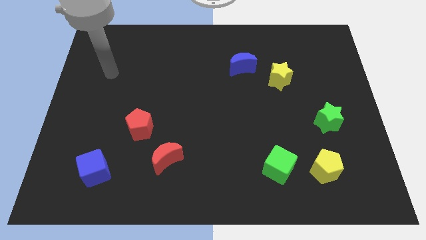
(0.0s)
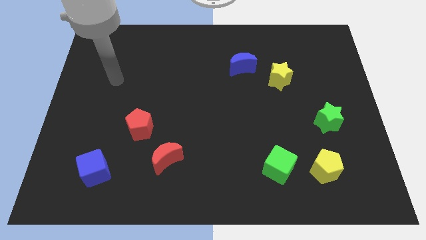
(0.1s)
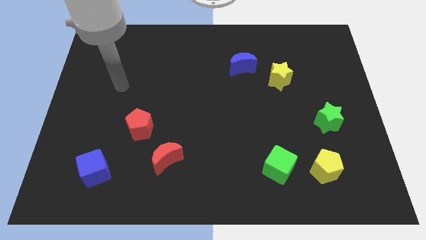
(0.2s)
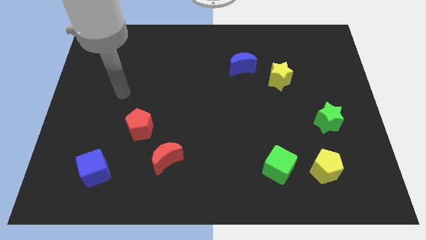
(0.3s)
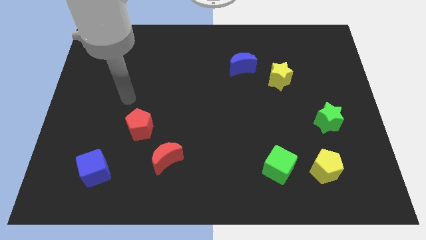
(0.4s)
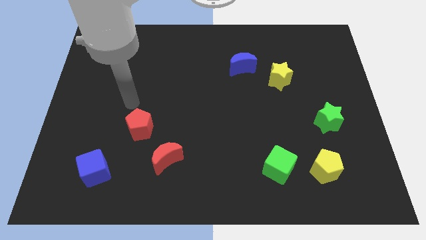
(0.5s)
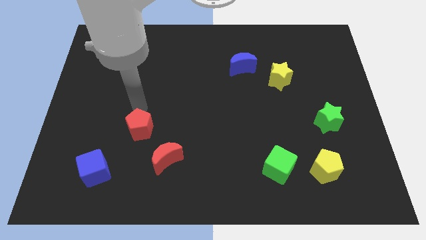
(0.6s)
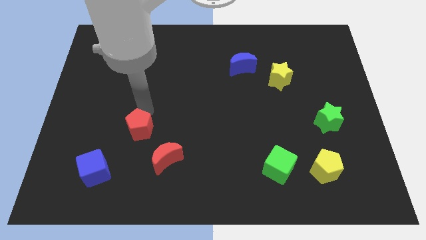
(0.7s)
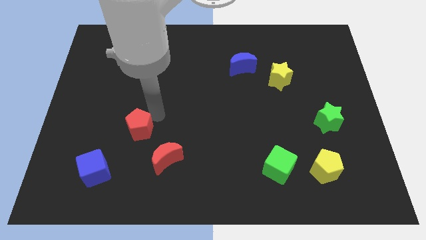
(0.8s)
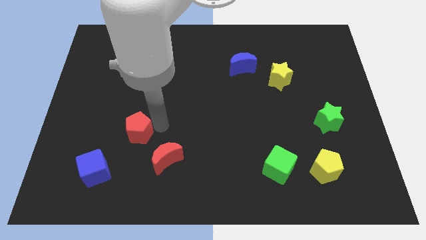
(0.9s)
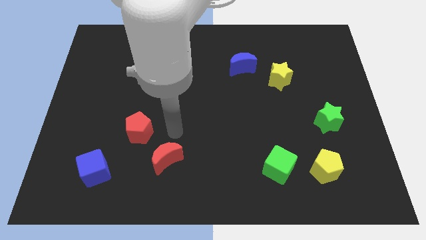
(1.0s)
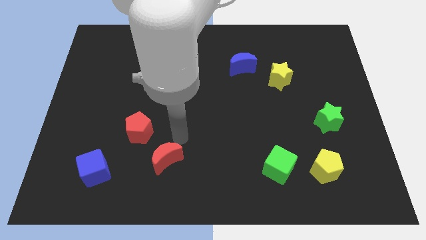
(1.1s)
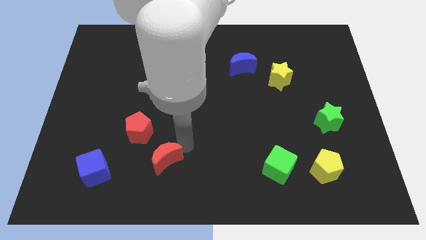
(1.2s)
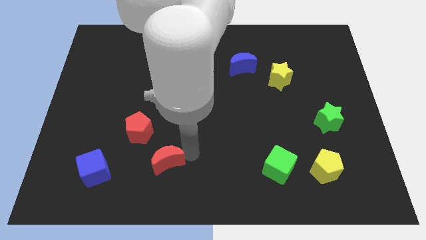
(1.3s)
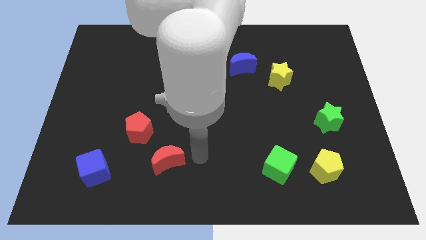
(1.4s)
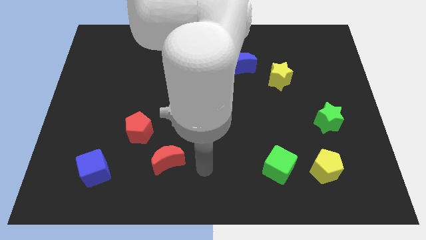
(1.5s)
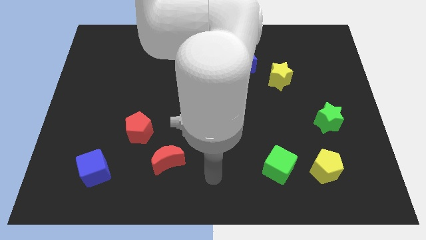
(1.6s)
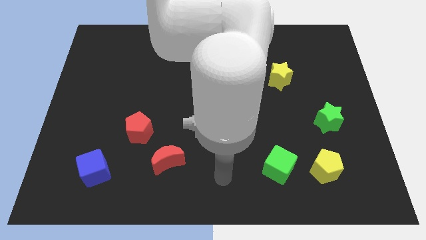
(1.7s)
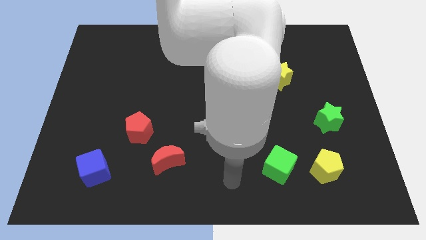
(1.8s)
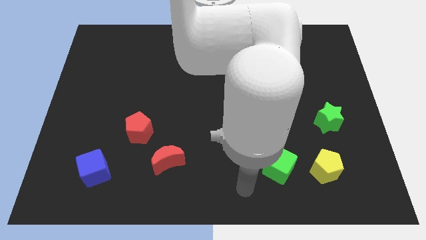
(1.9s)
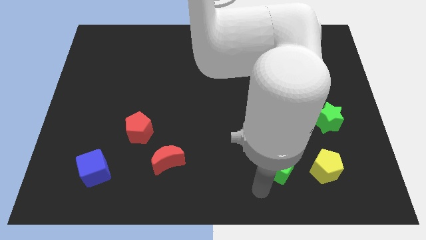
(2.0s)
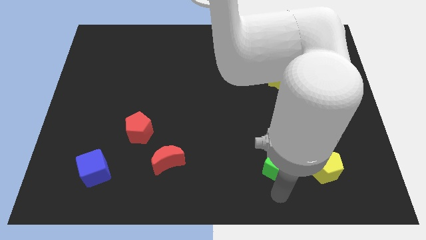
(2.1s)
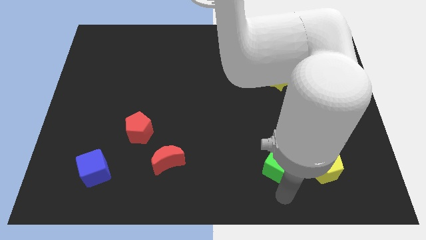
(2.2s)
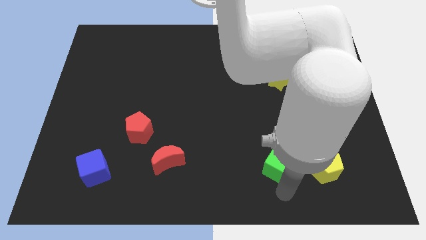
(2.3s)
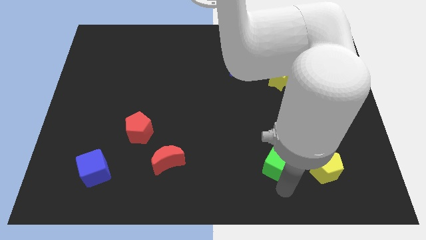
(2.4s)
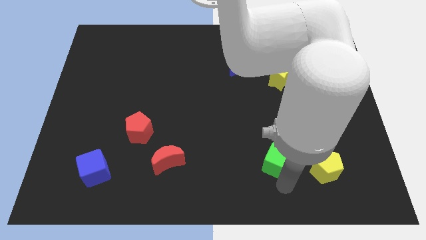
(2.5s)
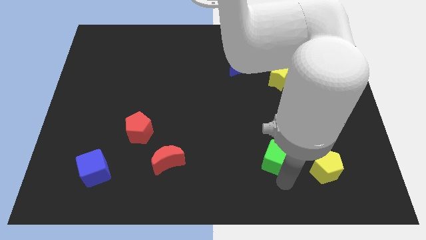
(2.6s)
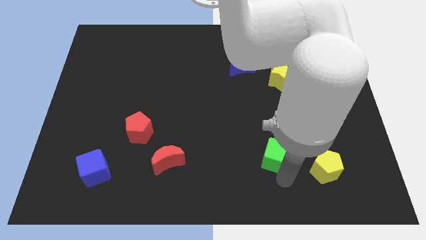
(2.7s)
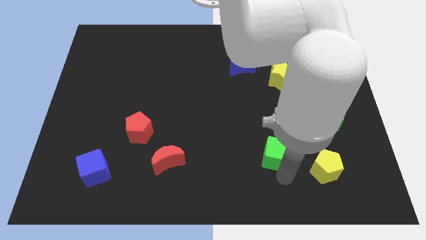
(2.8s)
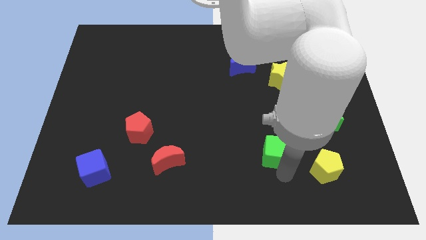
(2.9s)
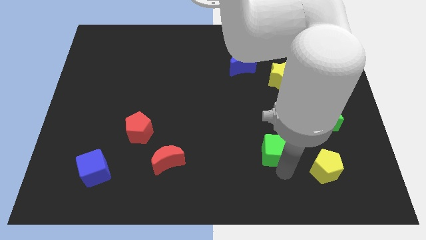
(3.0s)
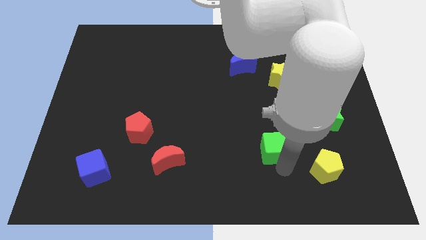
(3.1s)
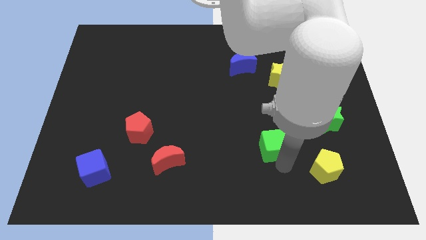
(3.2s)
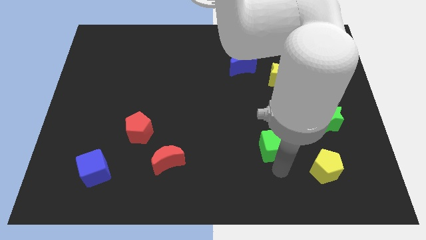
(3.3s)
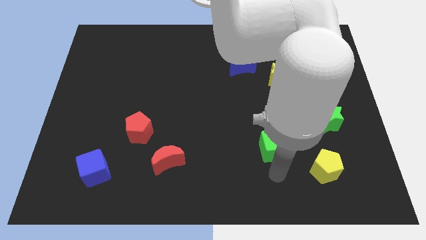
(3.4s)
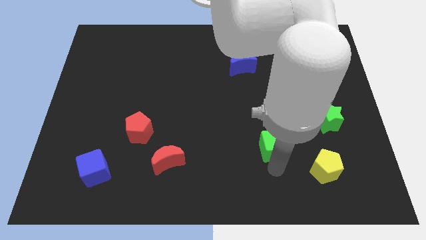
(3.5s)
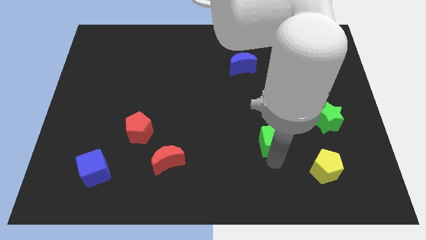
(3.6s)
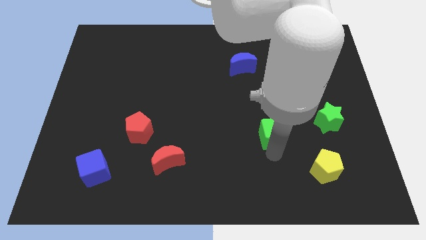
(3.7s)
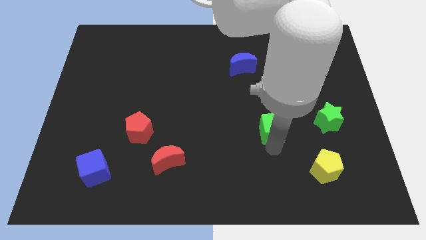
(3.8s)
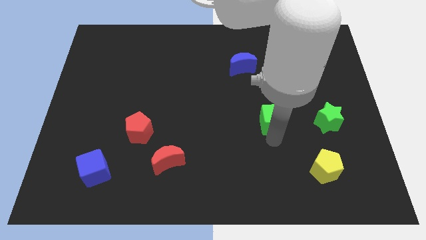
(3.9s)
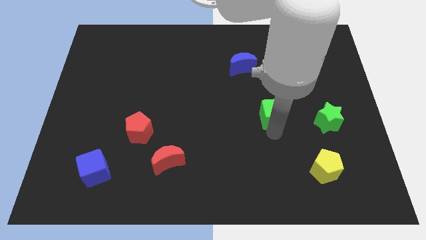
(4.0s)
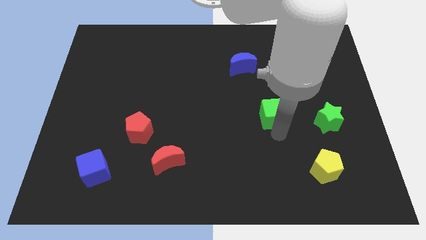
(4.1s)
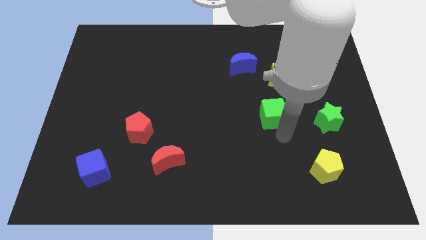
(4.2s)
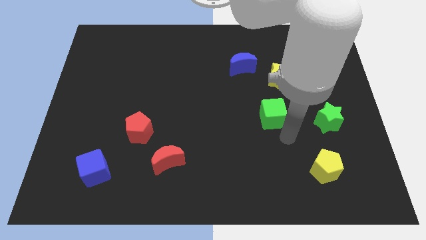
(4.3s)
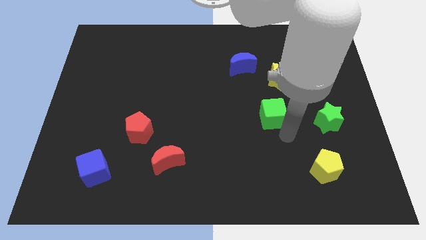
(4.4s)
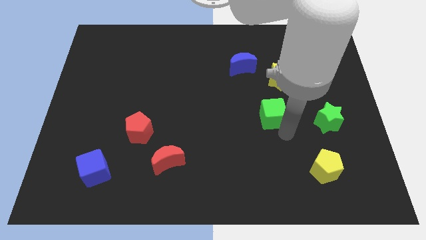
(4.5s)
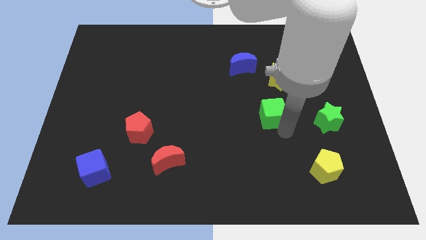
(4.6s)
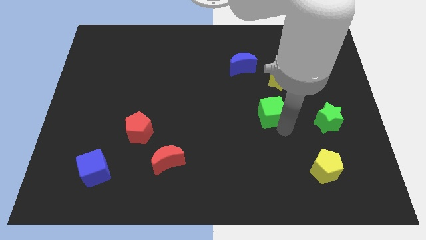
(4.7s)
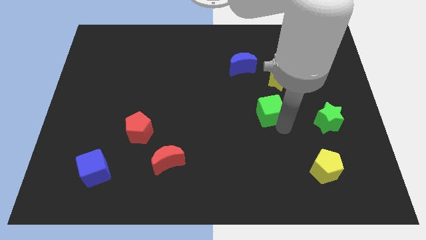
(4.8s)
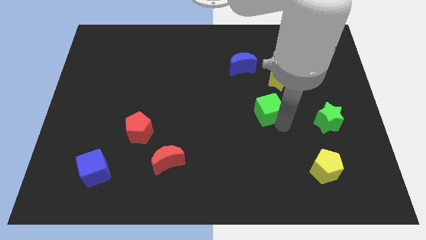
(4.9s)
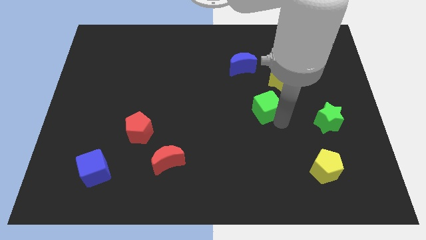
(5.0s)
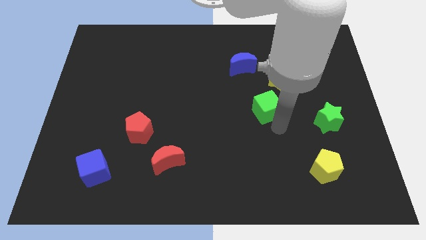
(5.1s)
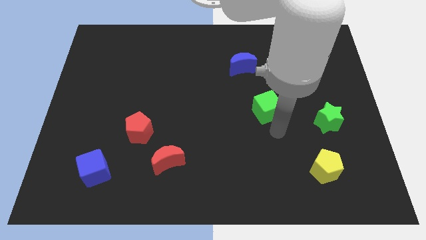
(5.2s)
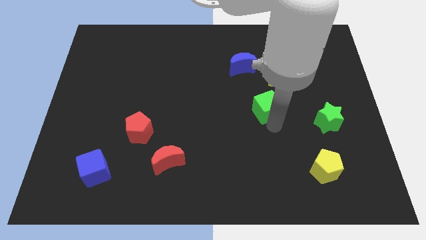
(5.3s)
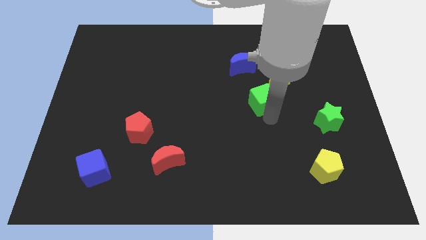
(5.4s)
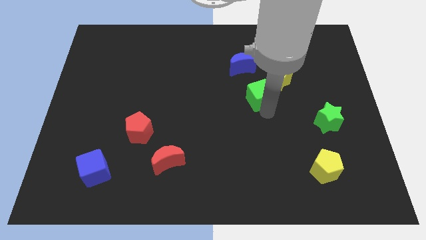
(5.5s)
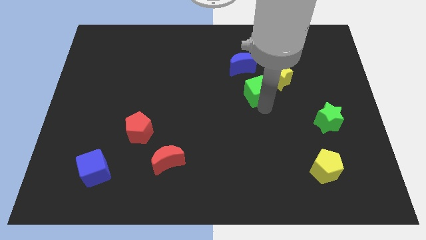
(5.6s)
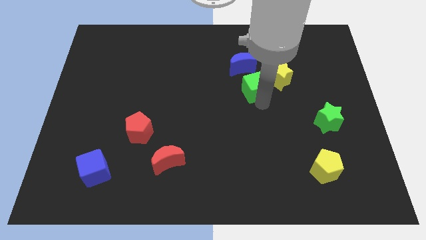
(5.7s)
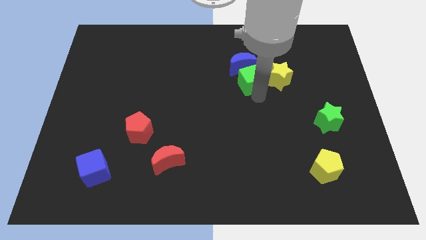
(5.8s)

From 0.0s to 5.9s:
push the green cube towards the blue moon

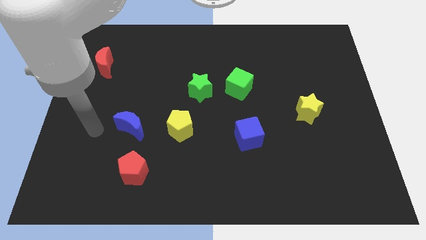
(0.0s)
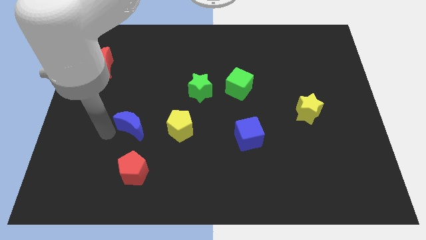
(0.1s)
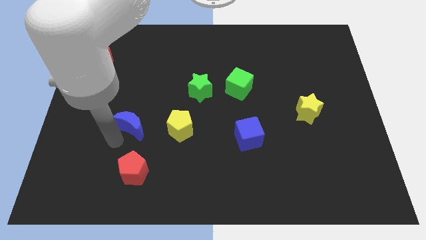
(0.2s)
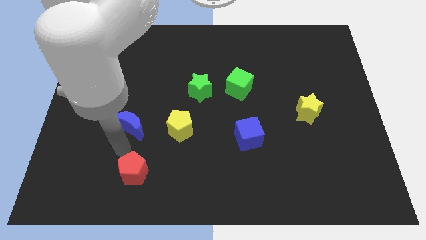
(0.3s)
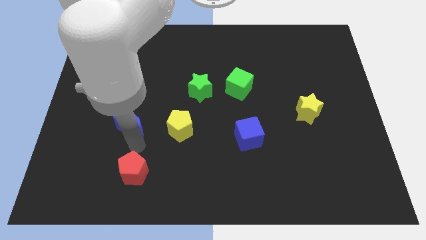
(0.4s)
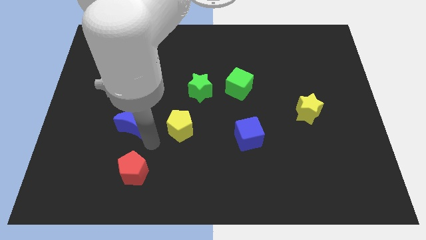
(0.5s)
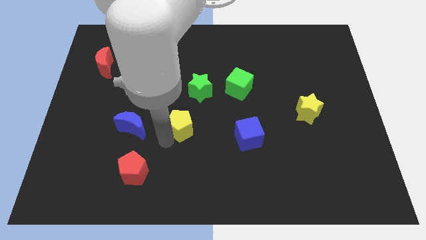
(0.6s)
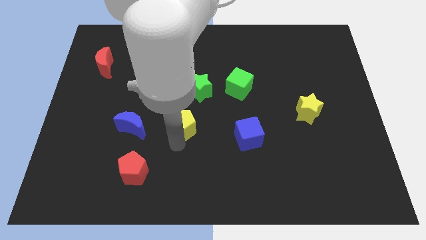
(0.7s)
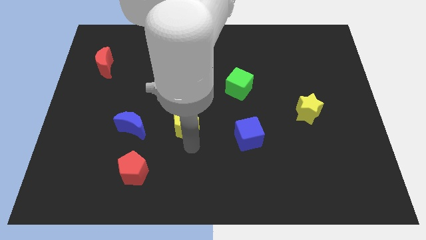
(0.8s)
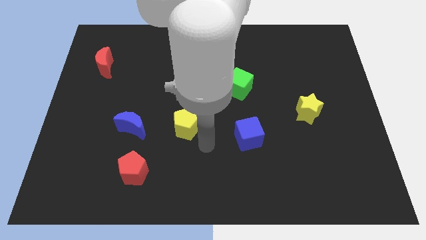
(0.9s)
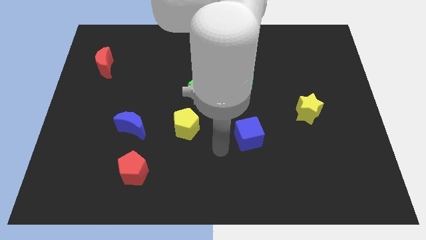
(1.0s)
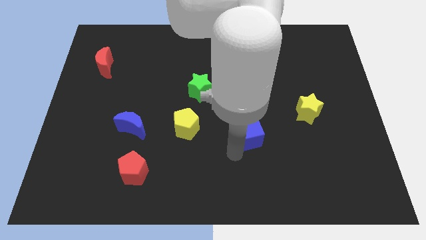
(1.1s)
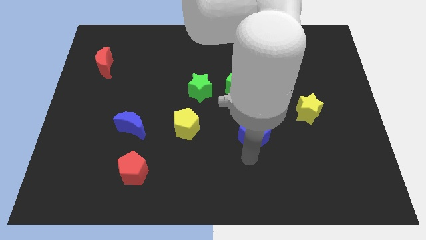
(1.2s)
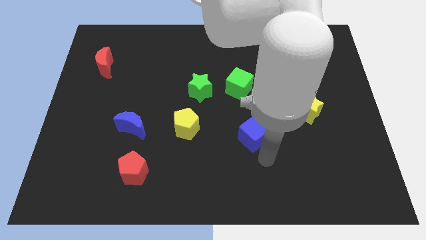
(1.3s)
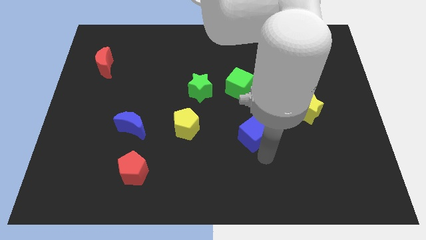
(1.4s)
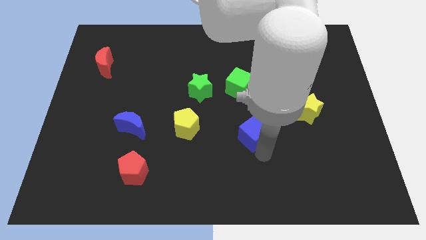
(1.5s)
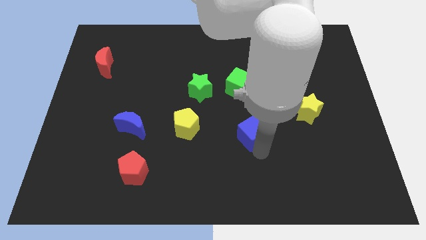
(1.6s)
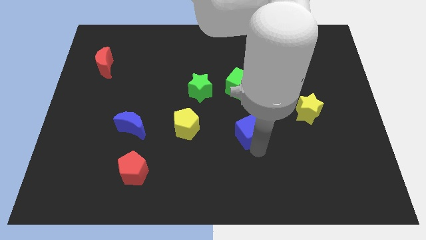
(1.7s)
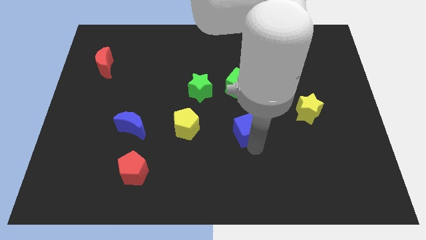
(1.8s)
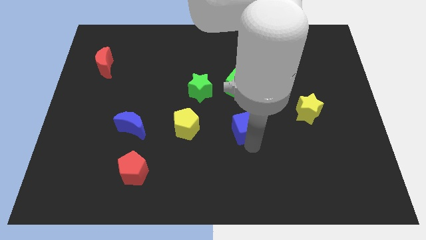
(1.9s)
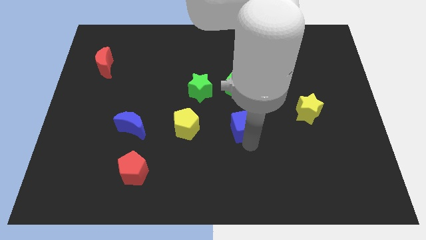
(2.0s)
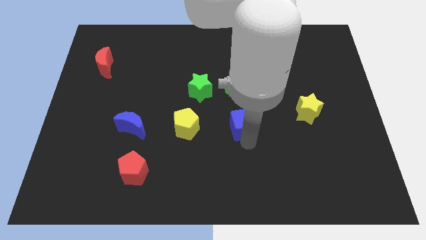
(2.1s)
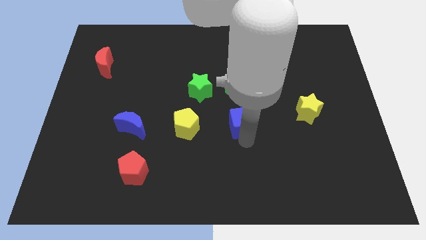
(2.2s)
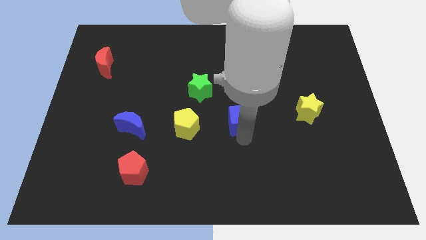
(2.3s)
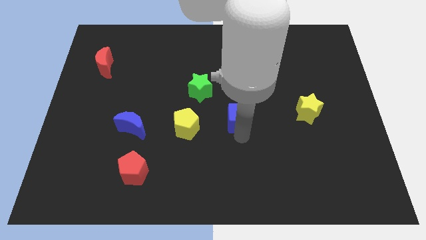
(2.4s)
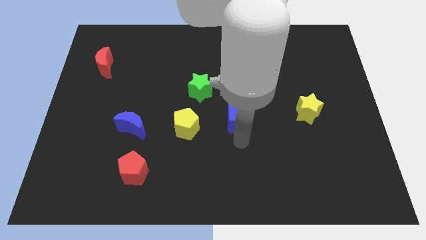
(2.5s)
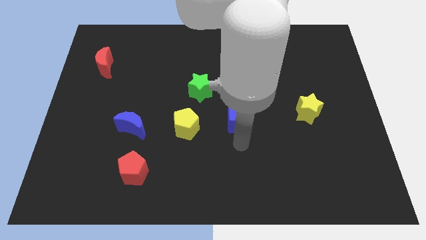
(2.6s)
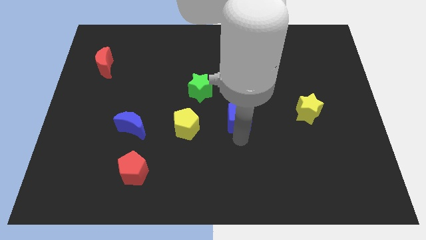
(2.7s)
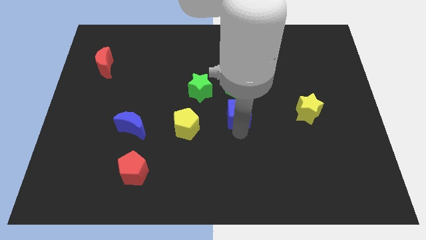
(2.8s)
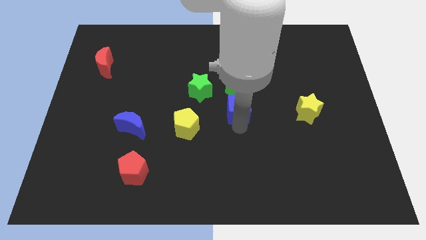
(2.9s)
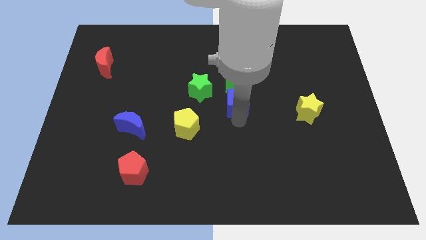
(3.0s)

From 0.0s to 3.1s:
put the blue cube next to the green cube
